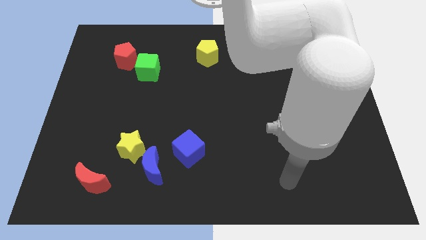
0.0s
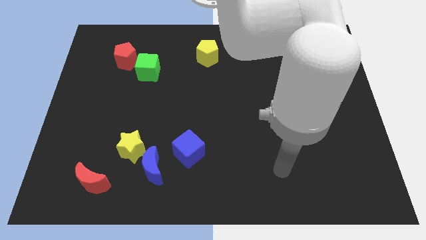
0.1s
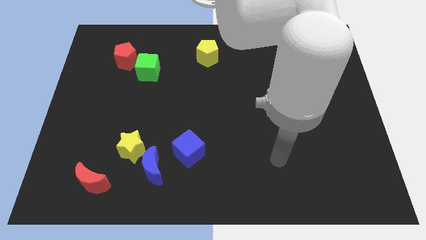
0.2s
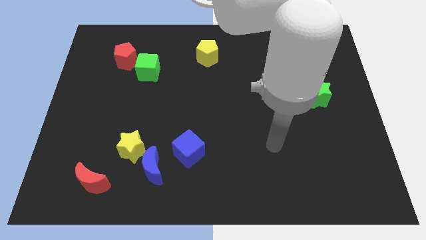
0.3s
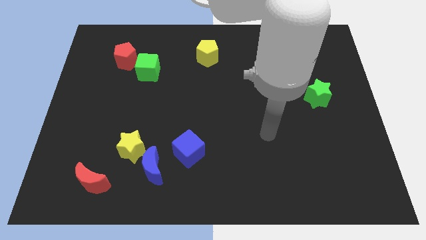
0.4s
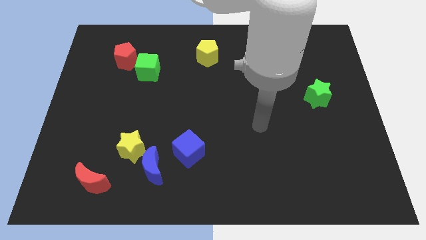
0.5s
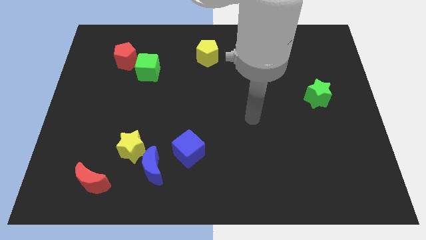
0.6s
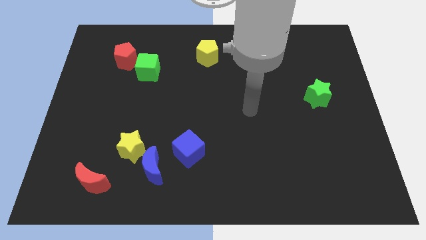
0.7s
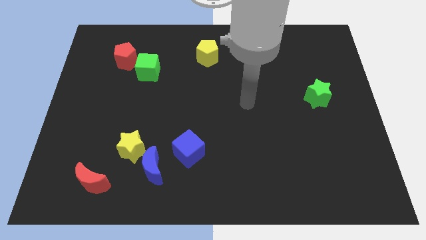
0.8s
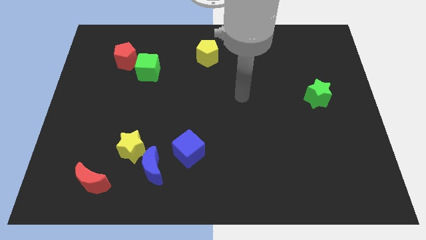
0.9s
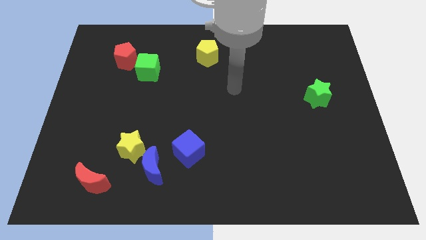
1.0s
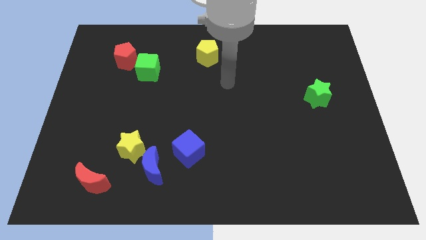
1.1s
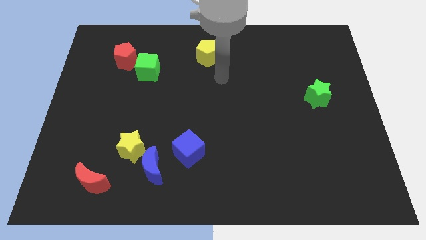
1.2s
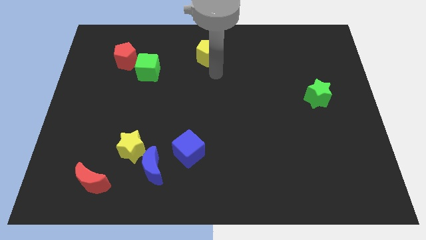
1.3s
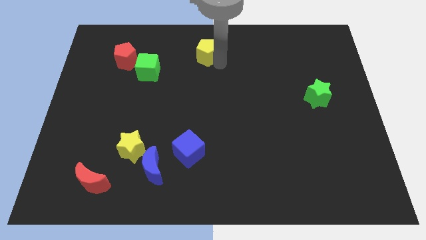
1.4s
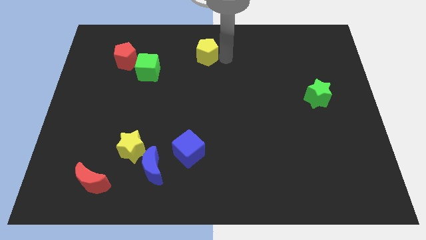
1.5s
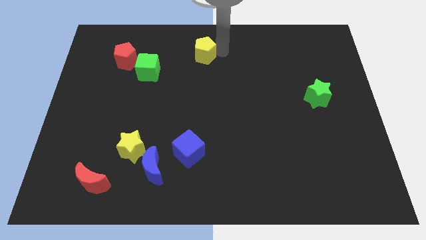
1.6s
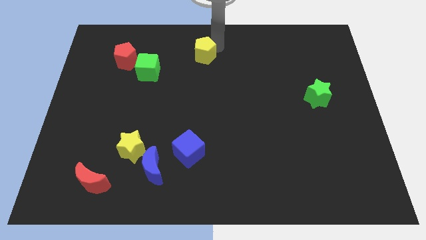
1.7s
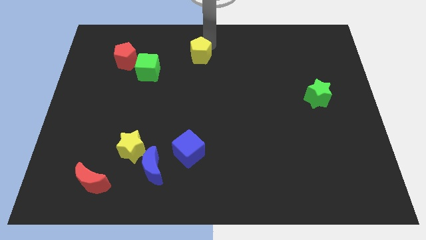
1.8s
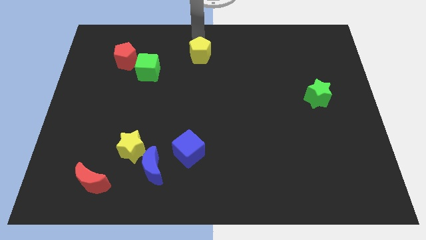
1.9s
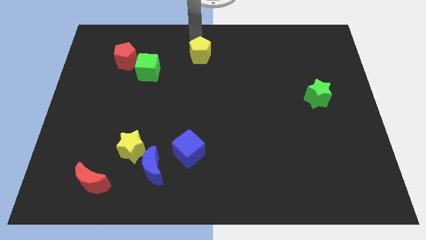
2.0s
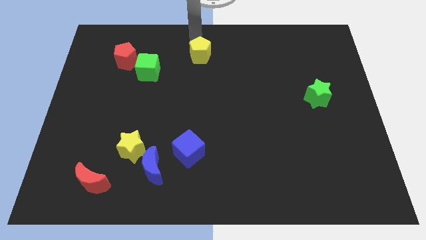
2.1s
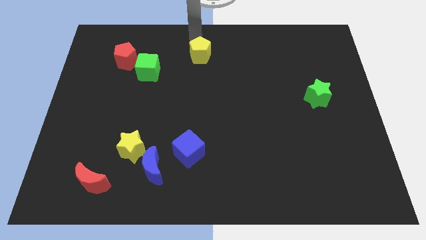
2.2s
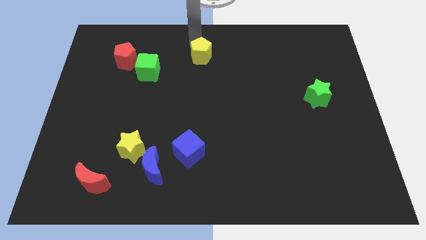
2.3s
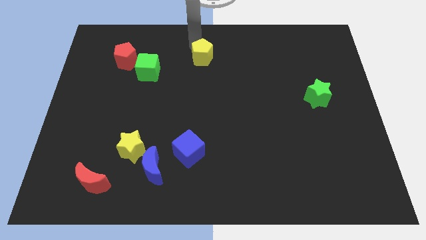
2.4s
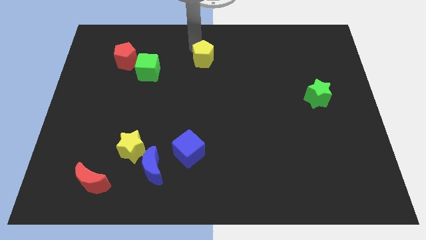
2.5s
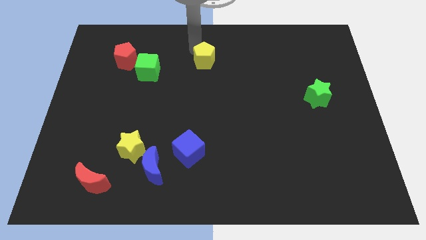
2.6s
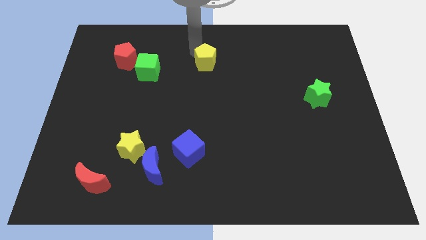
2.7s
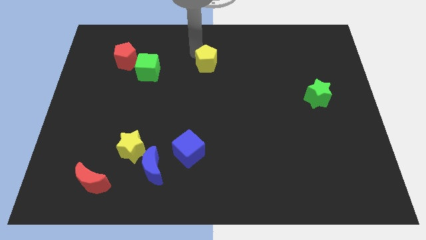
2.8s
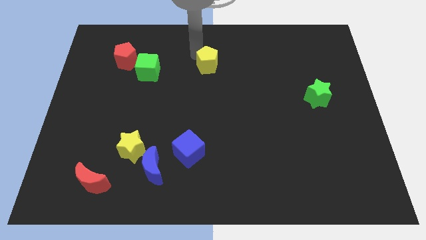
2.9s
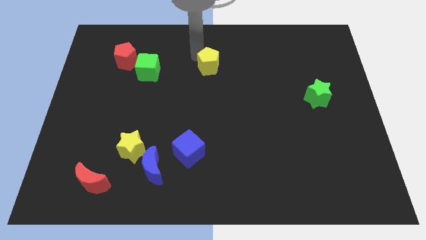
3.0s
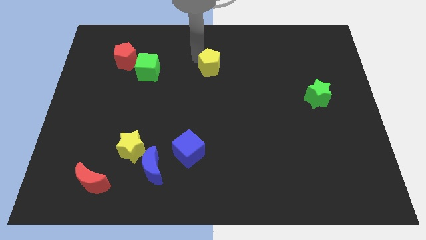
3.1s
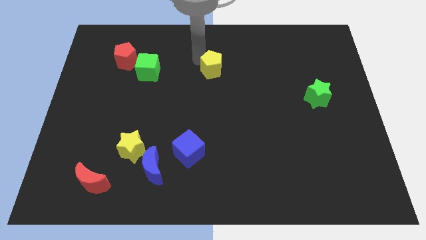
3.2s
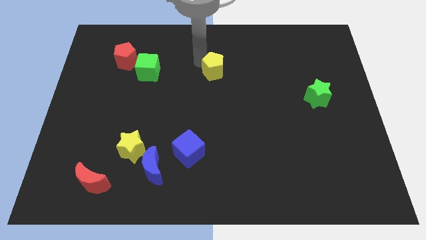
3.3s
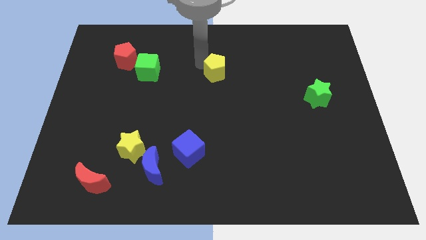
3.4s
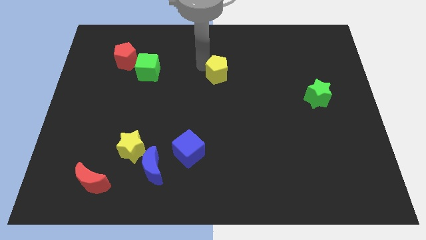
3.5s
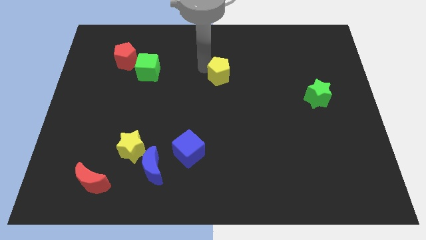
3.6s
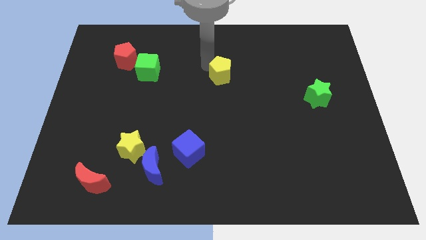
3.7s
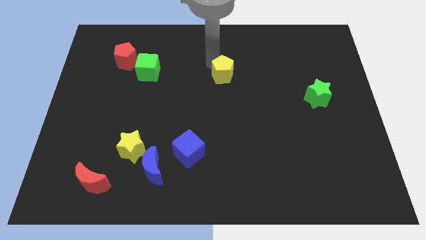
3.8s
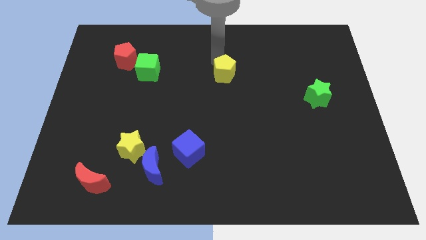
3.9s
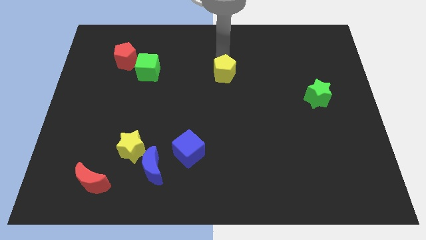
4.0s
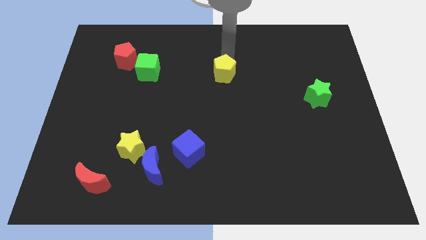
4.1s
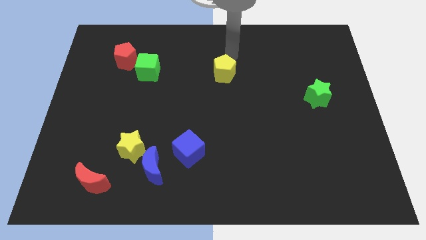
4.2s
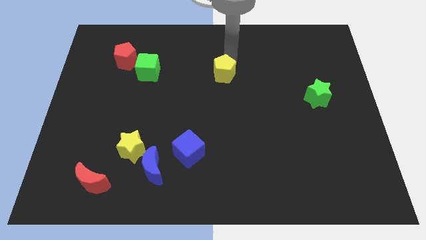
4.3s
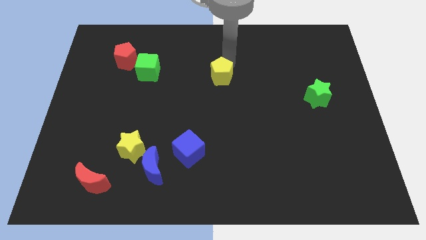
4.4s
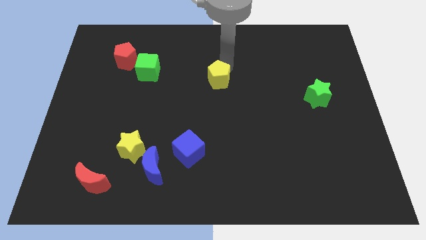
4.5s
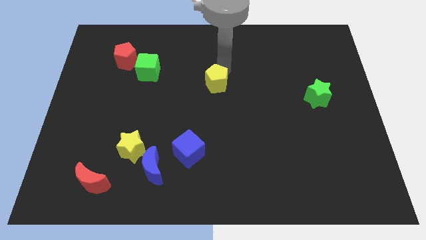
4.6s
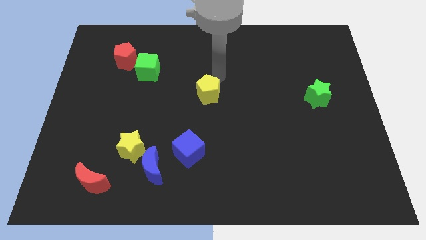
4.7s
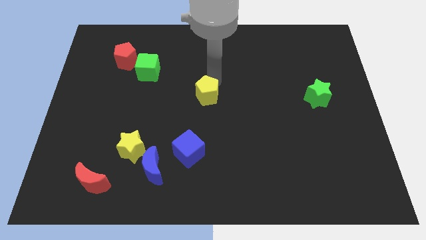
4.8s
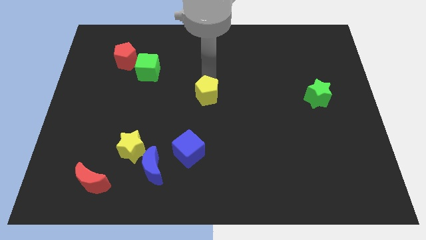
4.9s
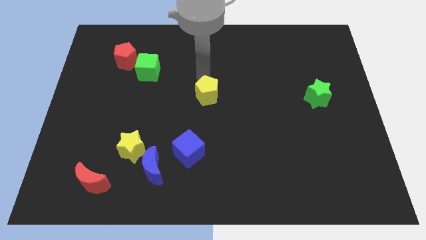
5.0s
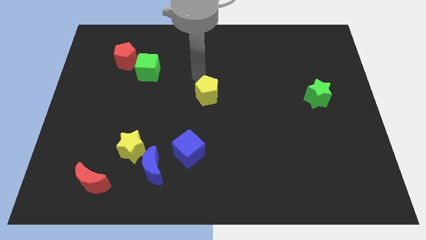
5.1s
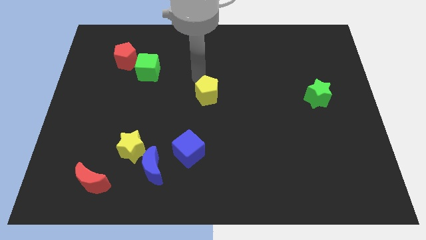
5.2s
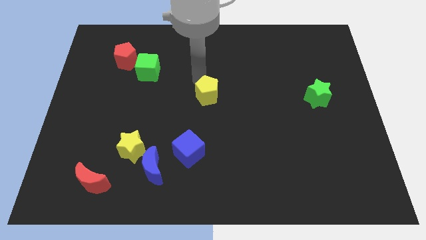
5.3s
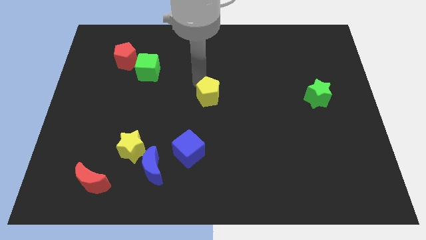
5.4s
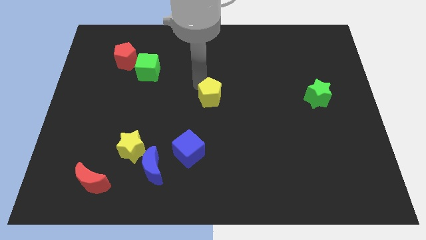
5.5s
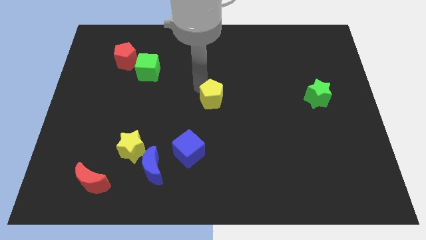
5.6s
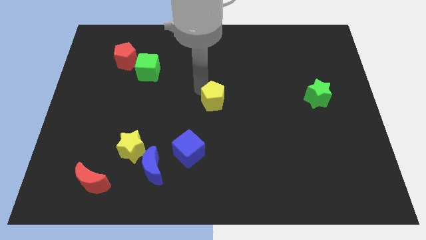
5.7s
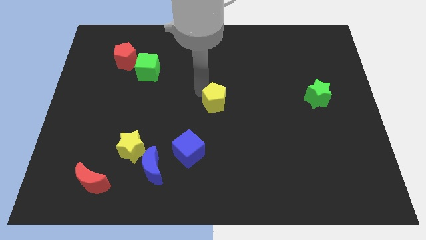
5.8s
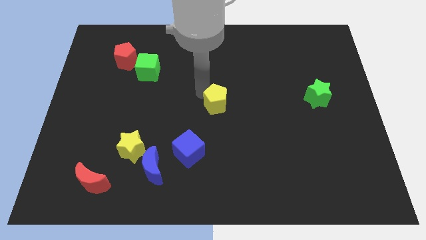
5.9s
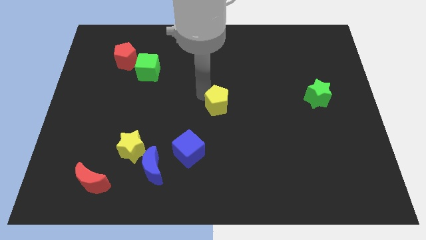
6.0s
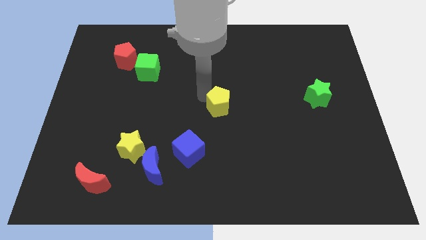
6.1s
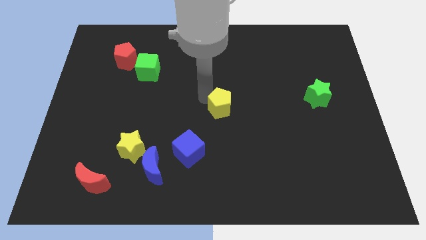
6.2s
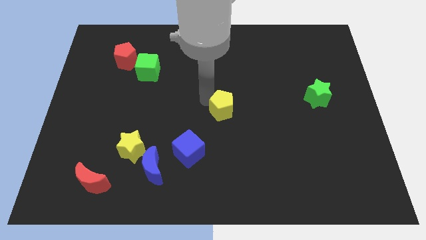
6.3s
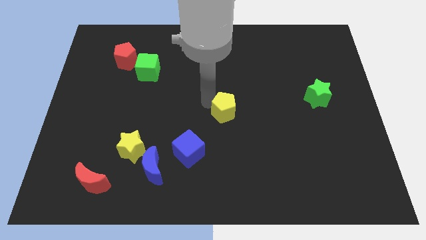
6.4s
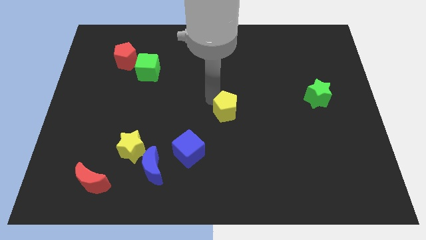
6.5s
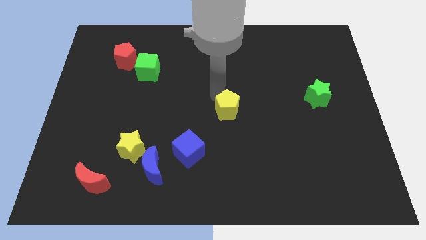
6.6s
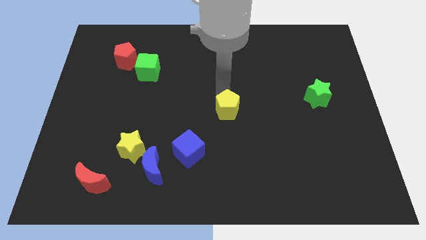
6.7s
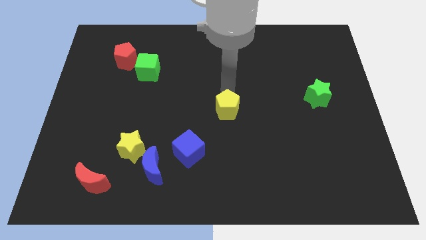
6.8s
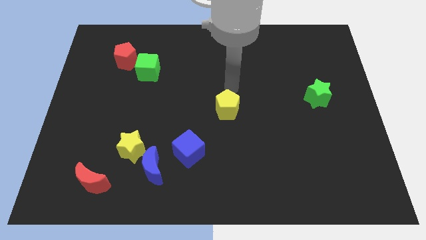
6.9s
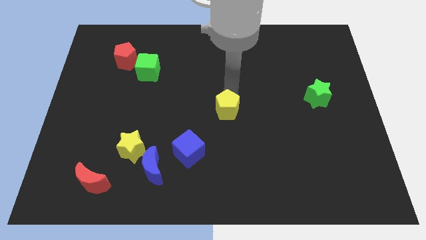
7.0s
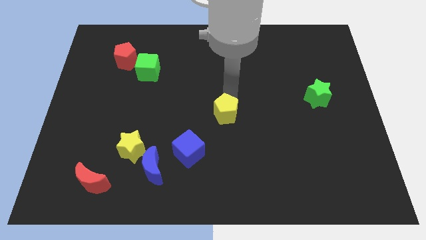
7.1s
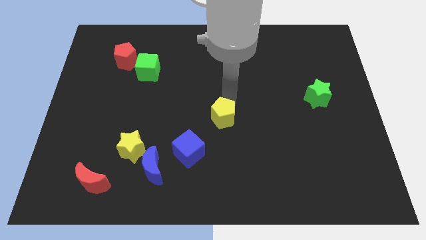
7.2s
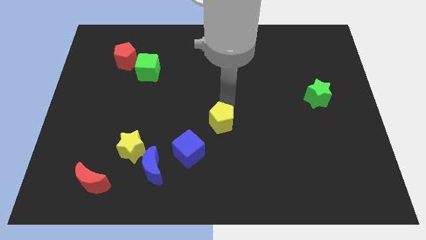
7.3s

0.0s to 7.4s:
slide the yellow pentagon down

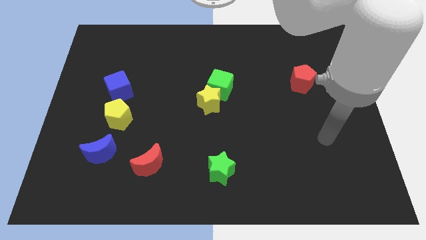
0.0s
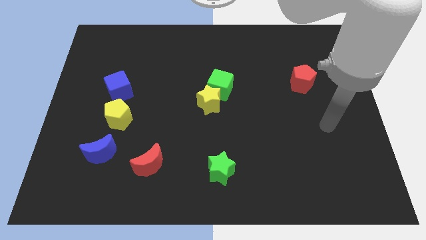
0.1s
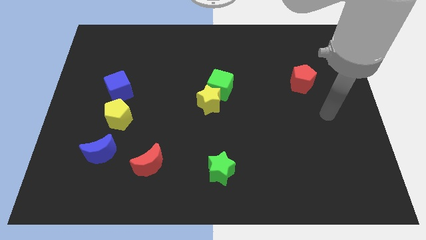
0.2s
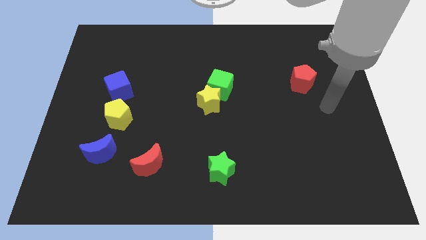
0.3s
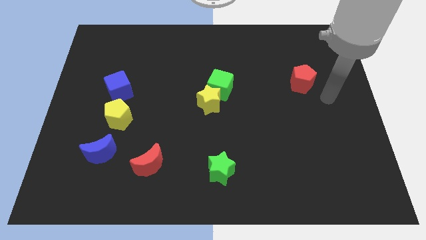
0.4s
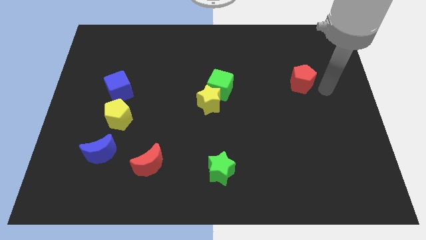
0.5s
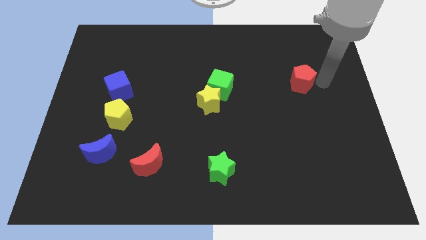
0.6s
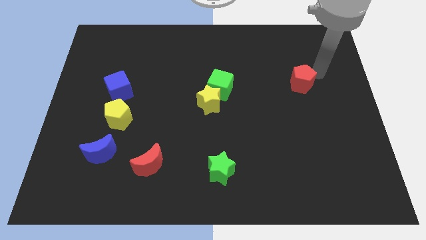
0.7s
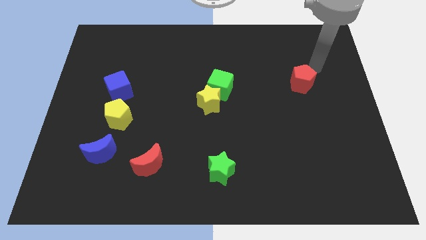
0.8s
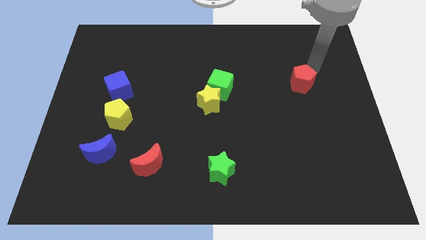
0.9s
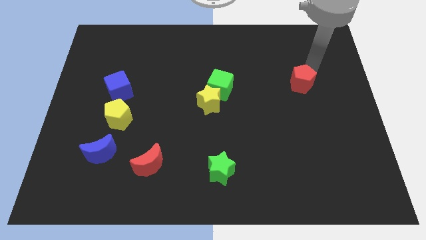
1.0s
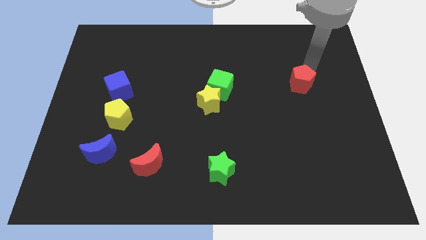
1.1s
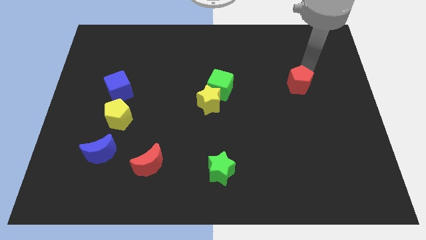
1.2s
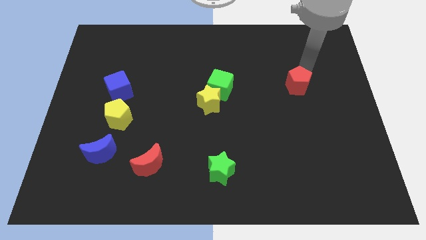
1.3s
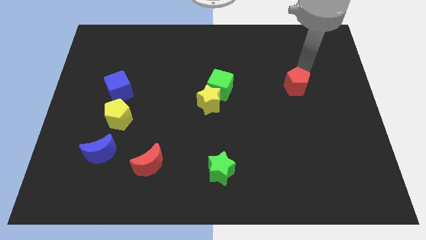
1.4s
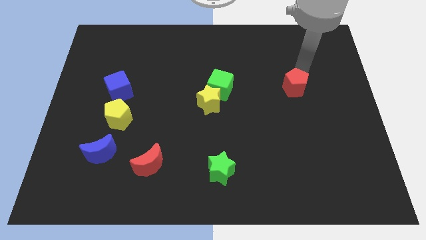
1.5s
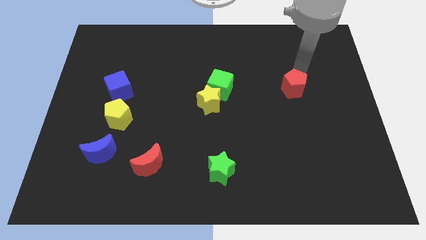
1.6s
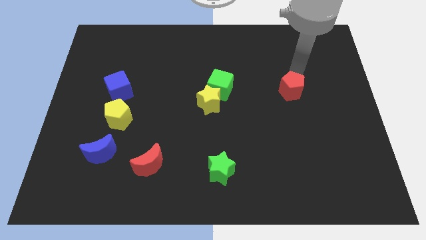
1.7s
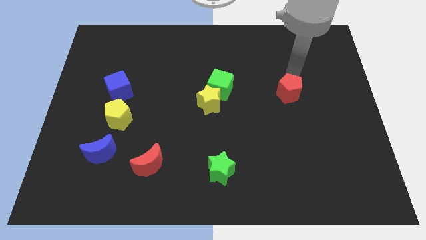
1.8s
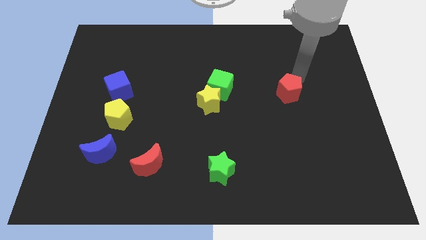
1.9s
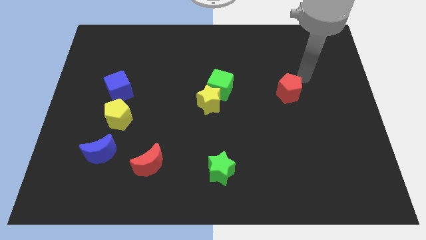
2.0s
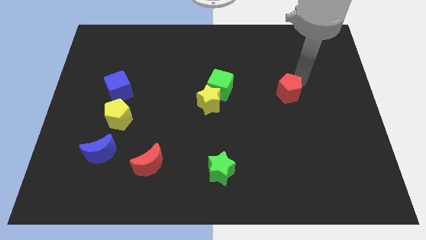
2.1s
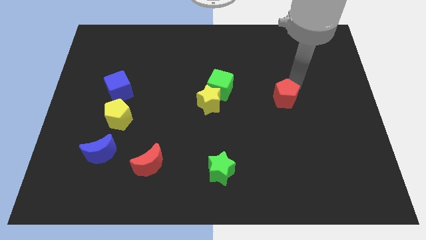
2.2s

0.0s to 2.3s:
push the red pentagon a bit downwards and then to the left
